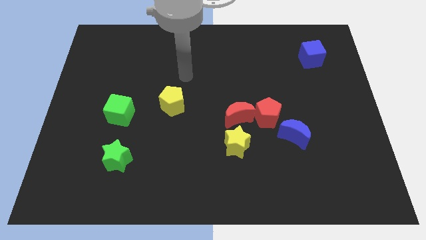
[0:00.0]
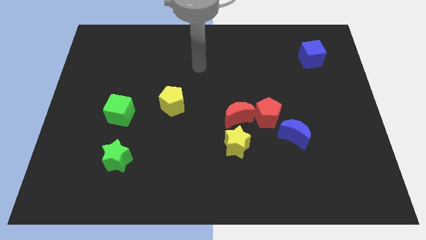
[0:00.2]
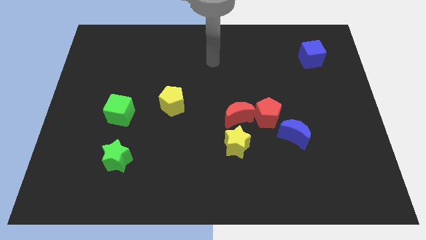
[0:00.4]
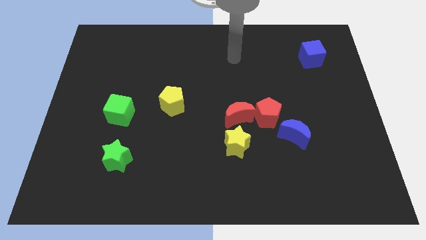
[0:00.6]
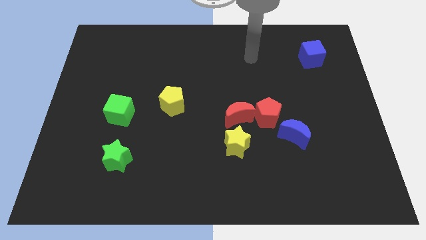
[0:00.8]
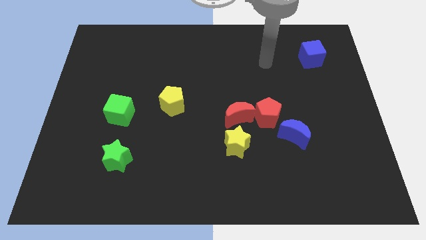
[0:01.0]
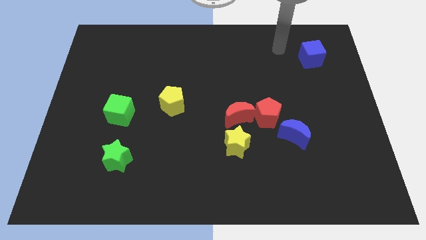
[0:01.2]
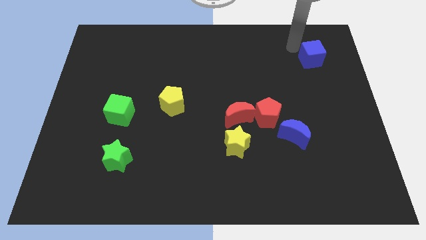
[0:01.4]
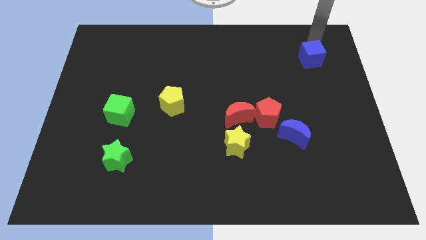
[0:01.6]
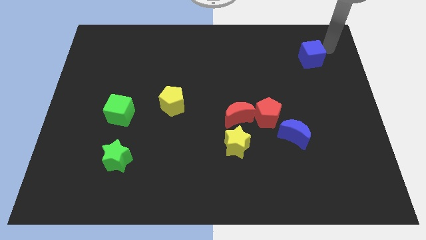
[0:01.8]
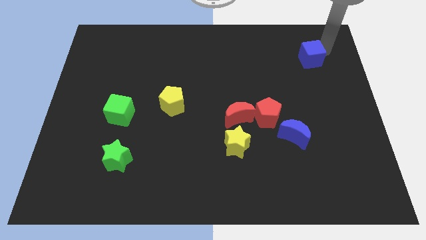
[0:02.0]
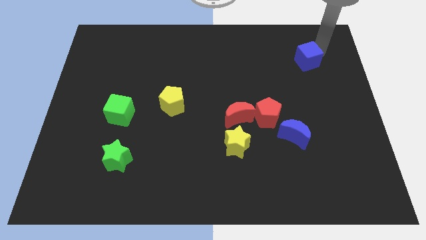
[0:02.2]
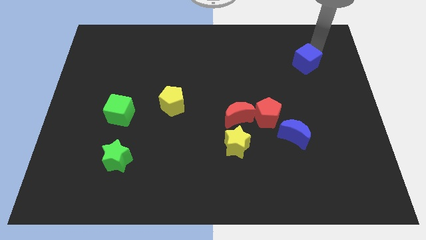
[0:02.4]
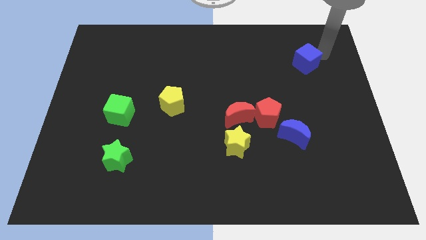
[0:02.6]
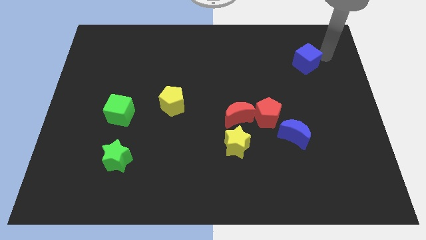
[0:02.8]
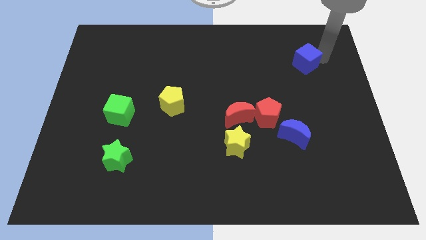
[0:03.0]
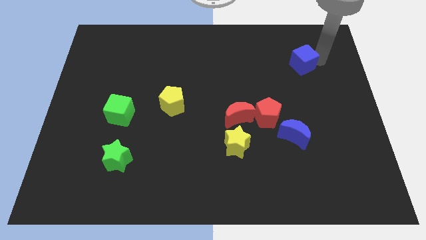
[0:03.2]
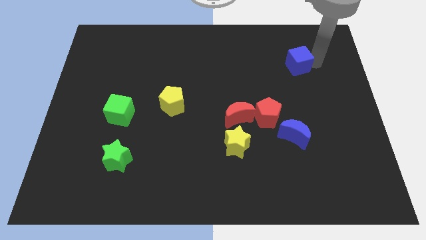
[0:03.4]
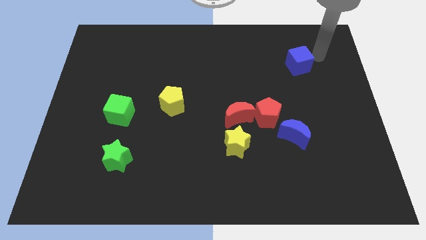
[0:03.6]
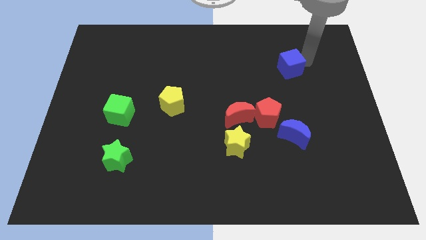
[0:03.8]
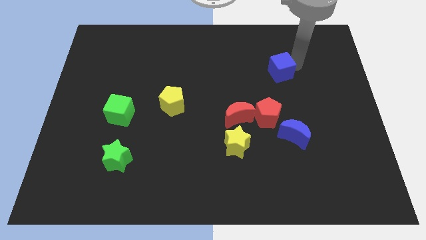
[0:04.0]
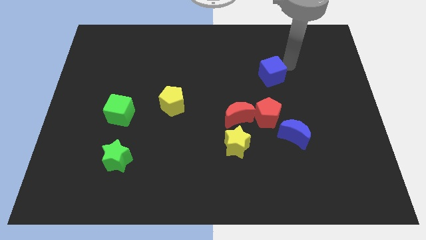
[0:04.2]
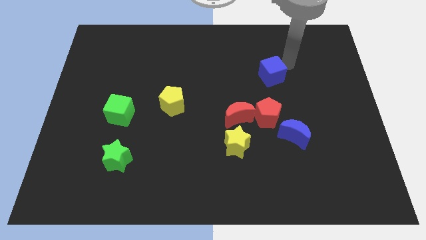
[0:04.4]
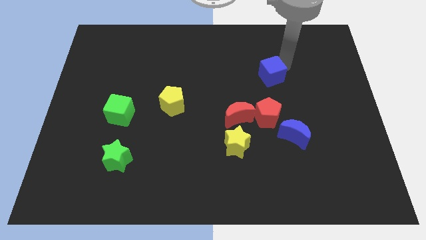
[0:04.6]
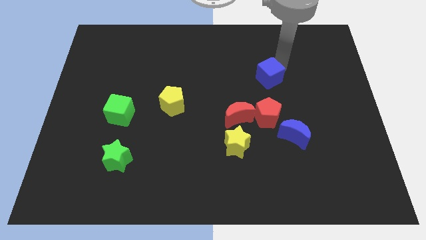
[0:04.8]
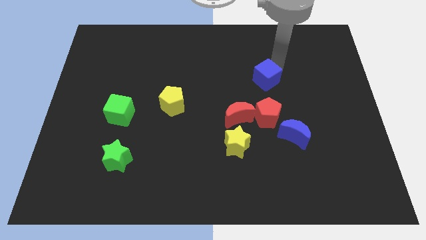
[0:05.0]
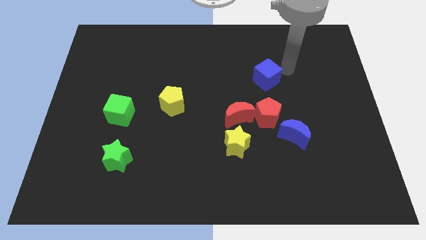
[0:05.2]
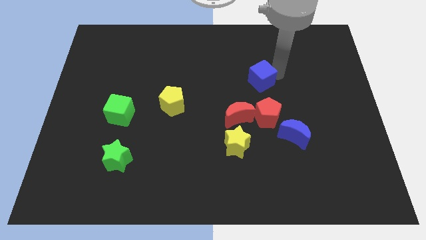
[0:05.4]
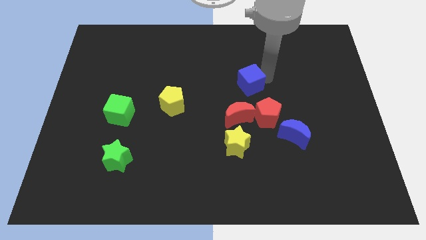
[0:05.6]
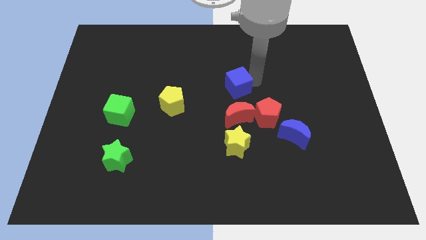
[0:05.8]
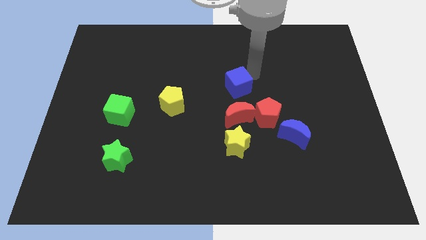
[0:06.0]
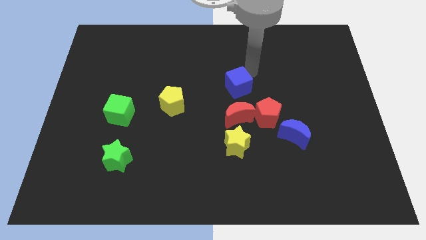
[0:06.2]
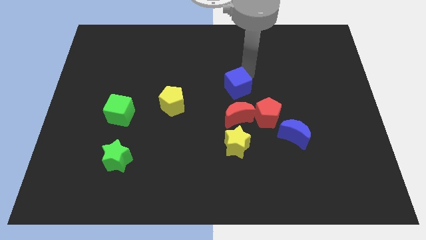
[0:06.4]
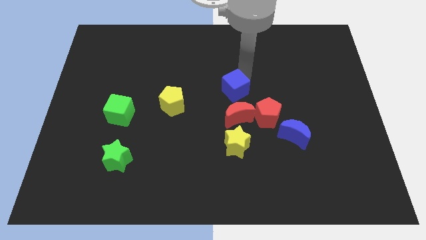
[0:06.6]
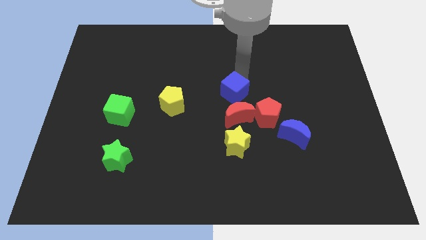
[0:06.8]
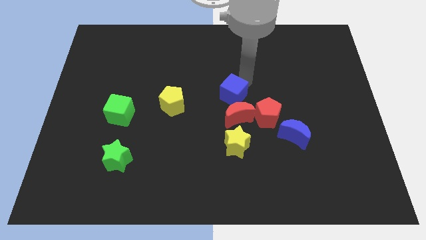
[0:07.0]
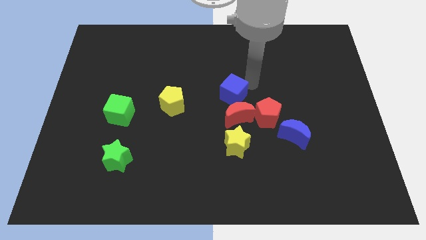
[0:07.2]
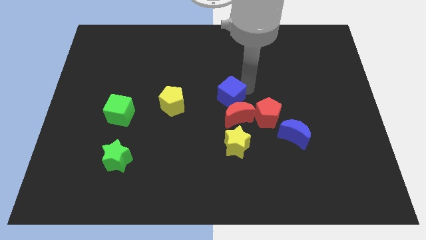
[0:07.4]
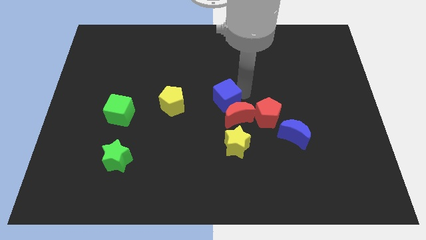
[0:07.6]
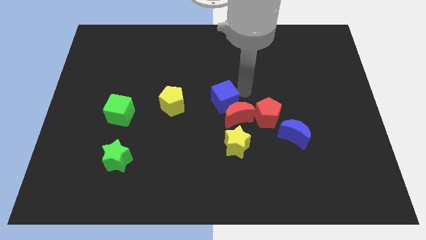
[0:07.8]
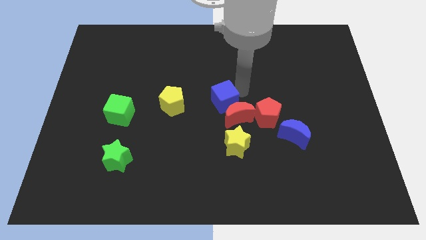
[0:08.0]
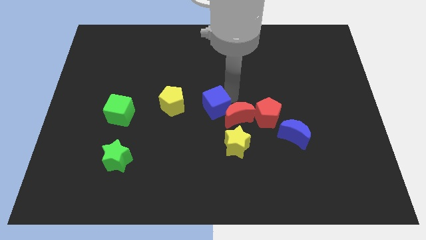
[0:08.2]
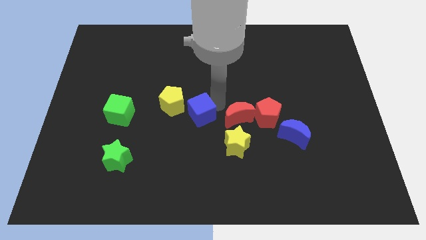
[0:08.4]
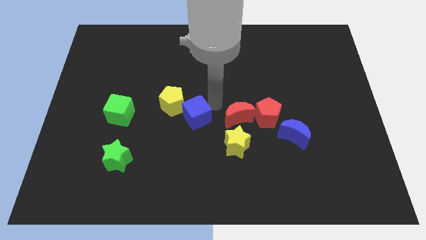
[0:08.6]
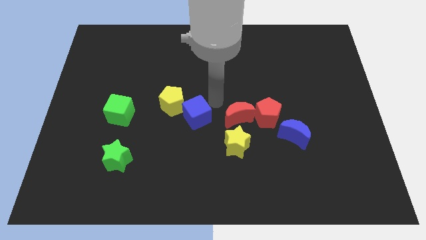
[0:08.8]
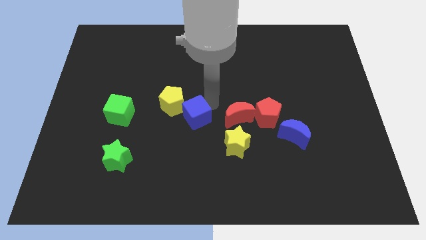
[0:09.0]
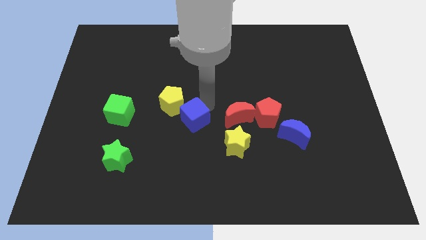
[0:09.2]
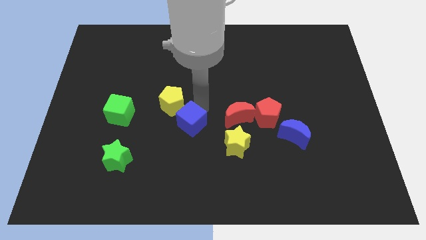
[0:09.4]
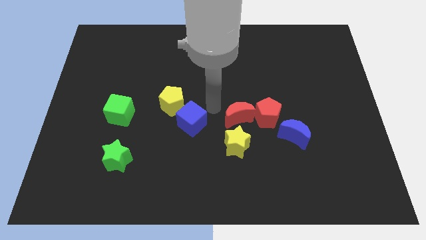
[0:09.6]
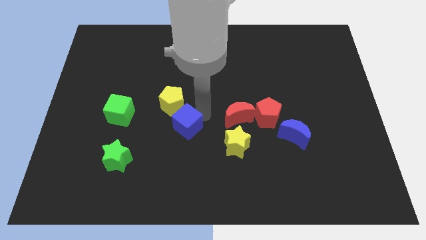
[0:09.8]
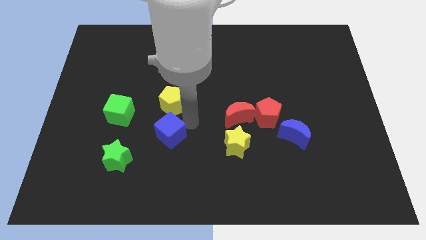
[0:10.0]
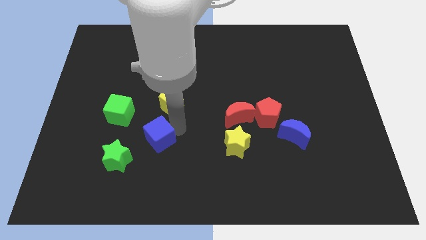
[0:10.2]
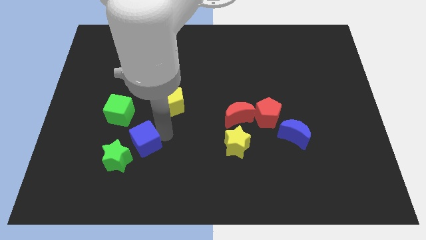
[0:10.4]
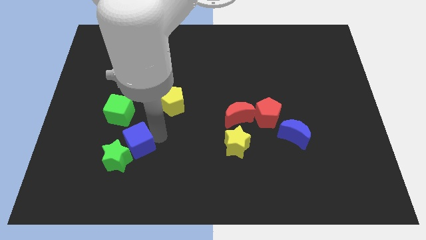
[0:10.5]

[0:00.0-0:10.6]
move the blue cube next to the green star

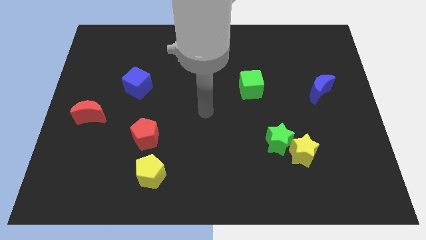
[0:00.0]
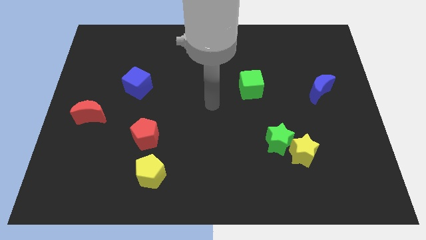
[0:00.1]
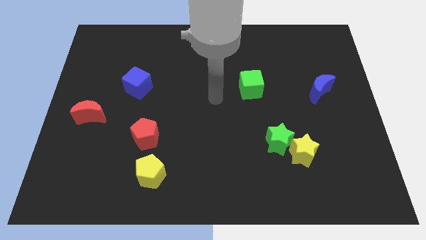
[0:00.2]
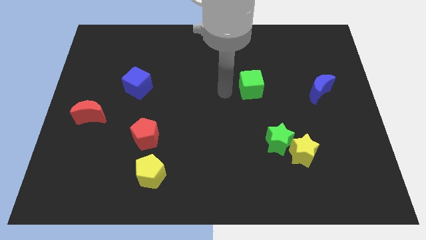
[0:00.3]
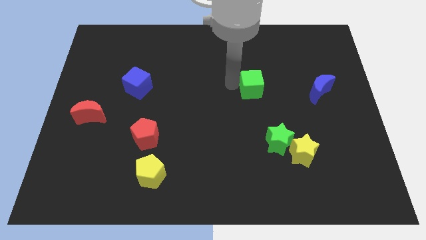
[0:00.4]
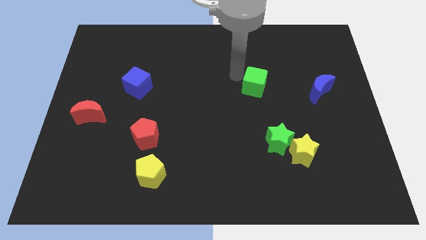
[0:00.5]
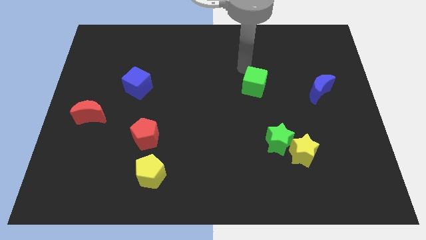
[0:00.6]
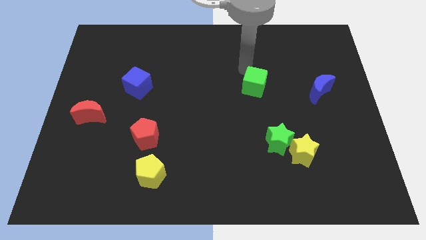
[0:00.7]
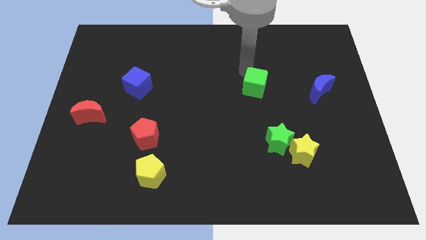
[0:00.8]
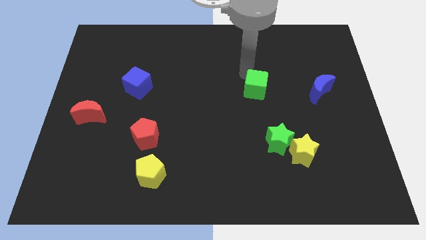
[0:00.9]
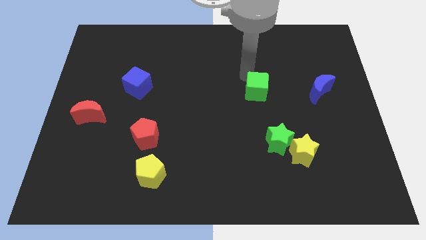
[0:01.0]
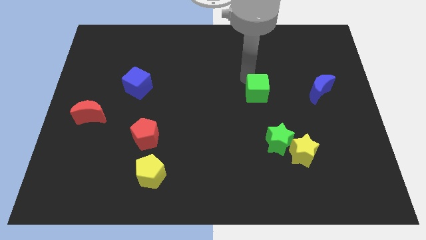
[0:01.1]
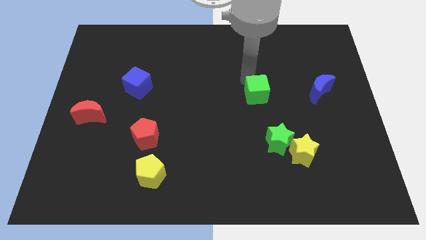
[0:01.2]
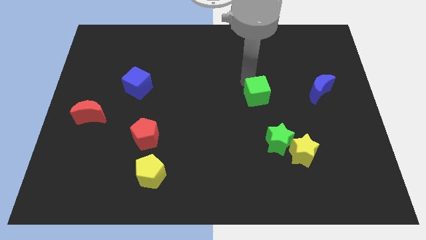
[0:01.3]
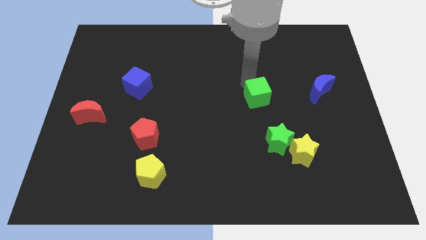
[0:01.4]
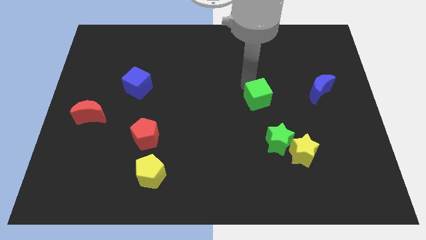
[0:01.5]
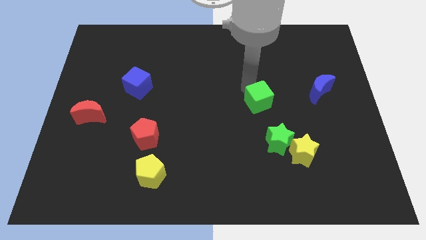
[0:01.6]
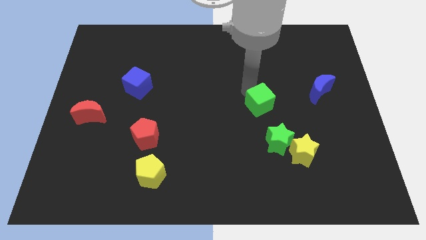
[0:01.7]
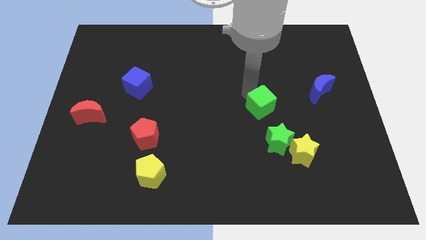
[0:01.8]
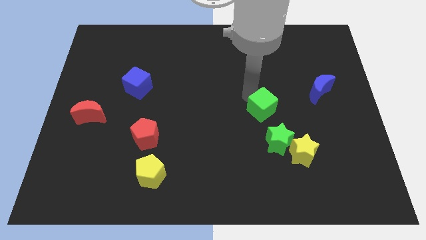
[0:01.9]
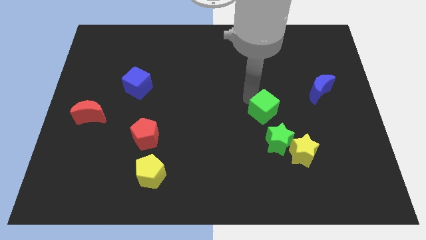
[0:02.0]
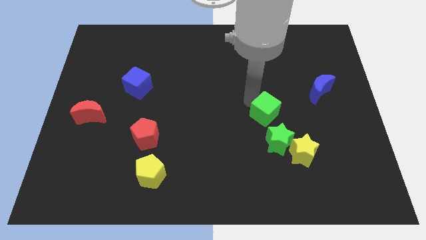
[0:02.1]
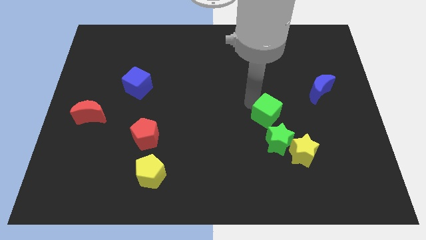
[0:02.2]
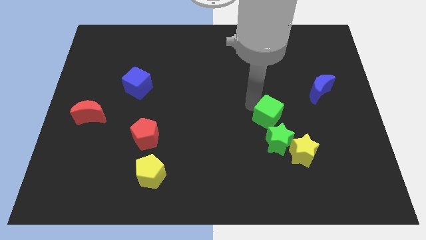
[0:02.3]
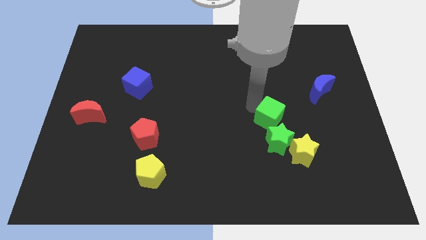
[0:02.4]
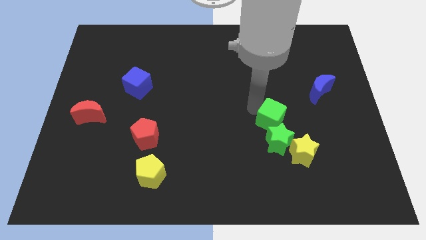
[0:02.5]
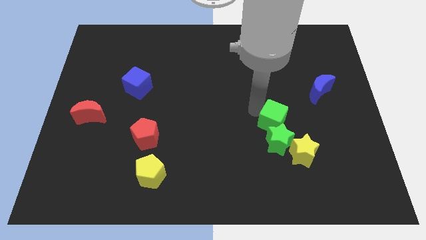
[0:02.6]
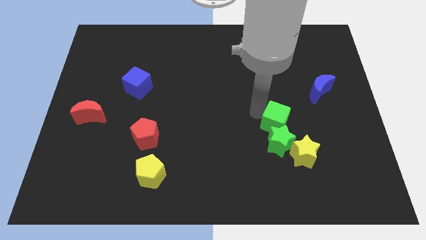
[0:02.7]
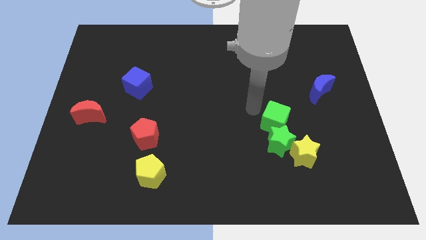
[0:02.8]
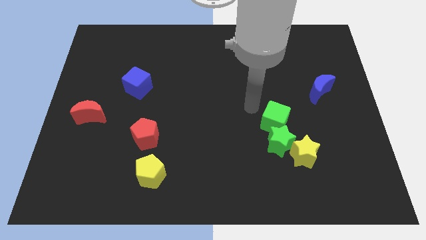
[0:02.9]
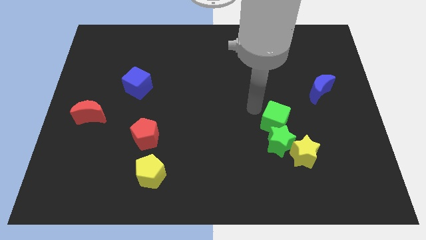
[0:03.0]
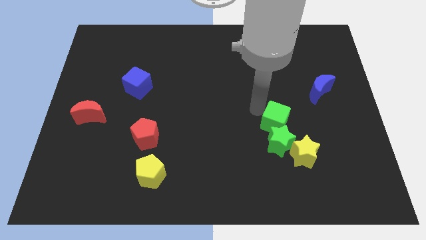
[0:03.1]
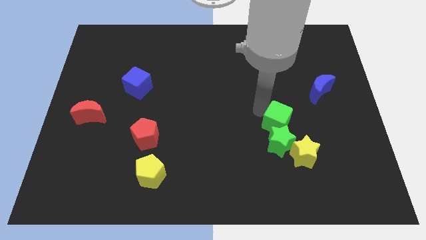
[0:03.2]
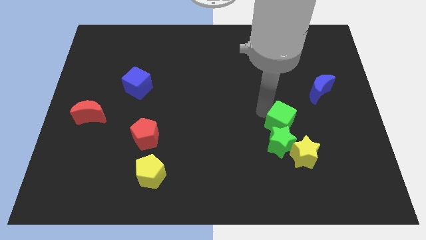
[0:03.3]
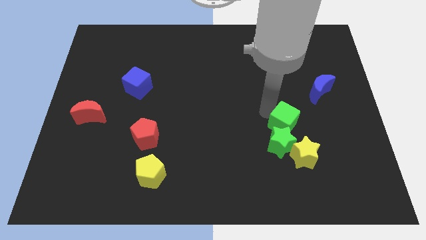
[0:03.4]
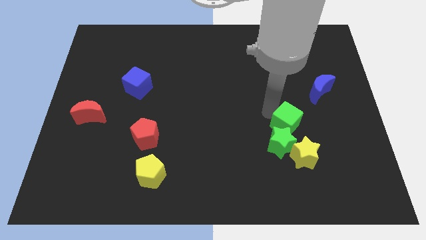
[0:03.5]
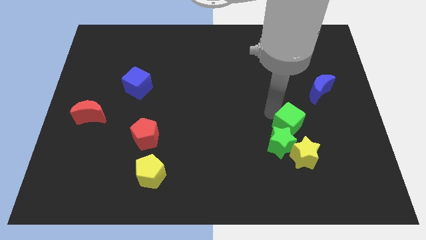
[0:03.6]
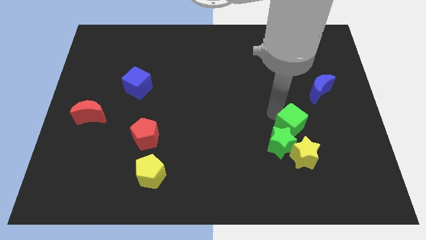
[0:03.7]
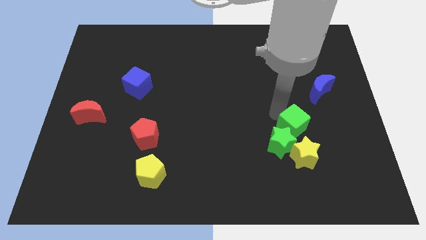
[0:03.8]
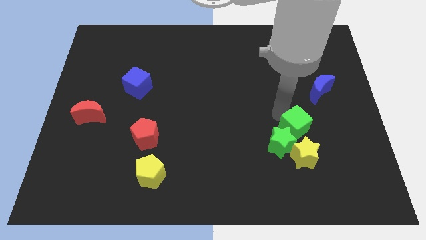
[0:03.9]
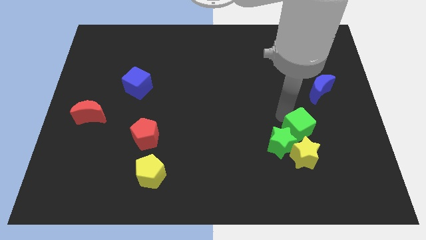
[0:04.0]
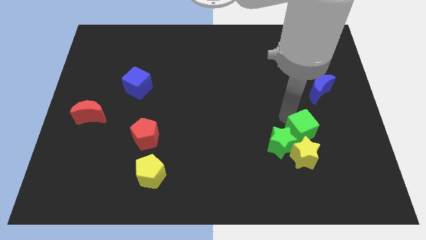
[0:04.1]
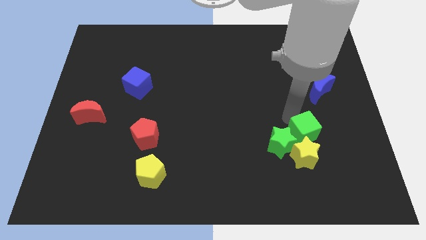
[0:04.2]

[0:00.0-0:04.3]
push the green cube next to the yellow star
